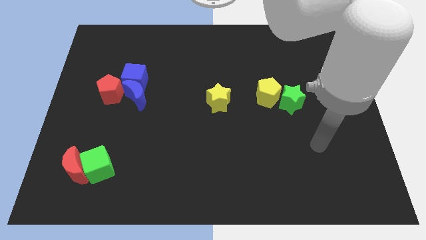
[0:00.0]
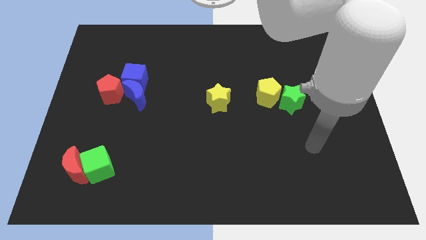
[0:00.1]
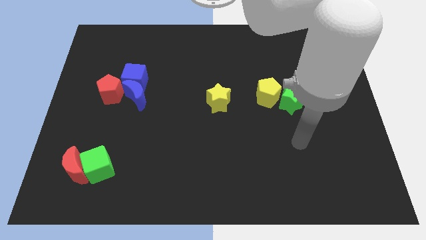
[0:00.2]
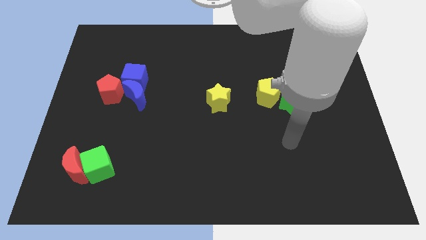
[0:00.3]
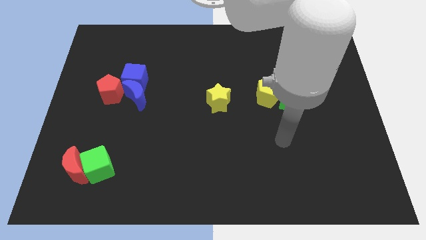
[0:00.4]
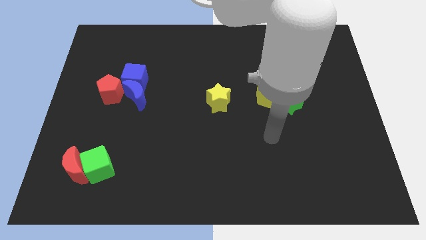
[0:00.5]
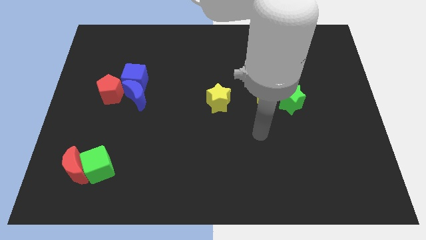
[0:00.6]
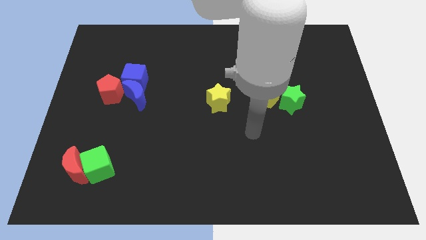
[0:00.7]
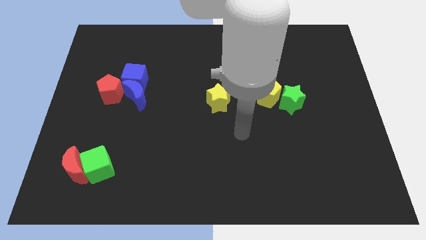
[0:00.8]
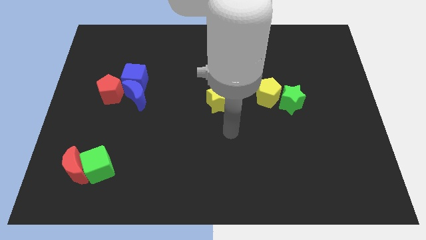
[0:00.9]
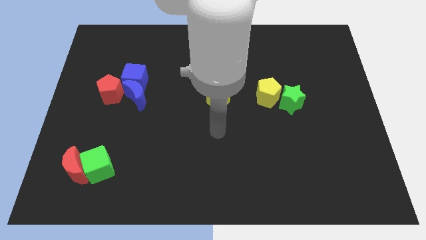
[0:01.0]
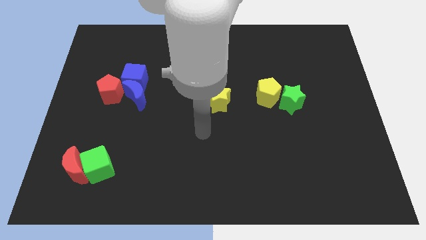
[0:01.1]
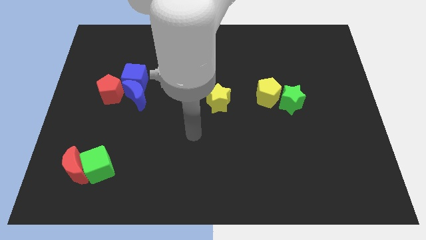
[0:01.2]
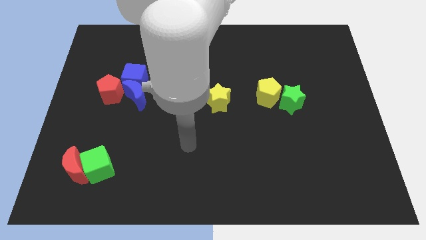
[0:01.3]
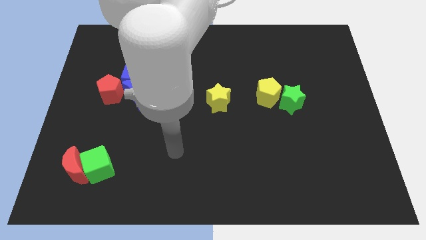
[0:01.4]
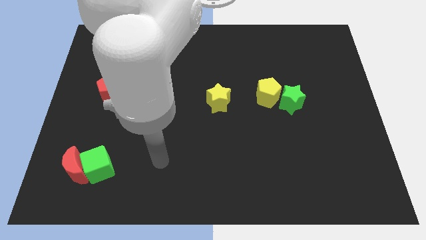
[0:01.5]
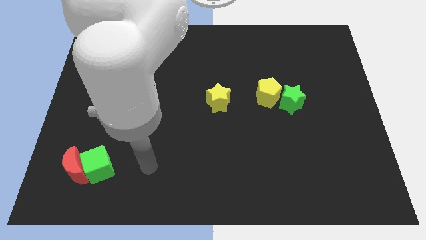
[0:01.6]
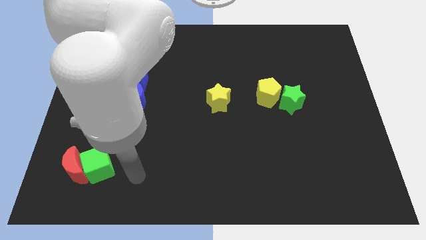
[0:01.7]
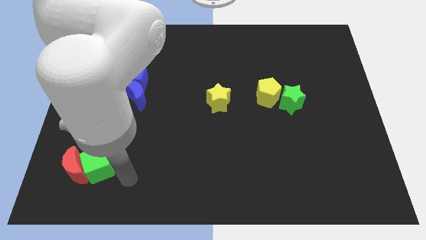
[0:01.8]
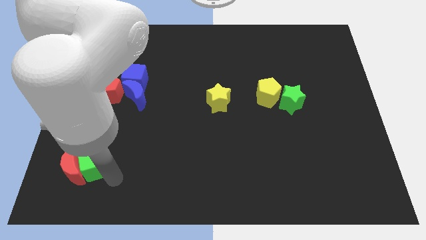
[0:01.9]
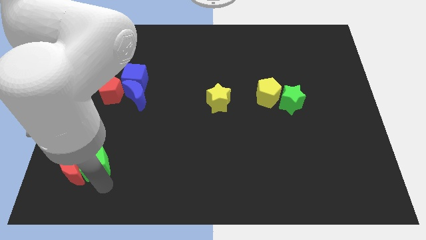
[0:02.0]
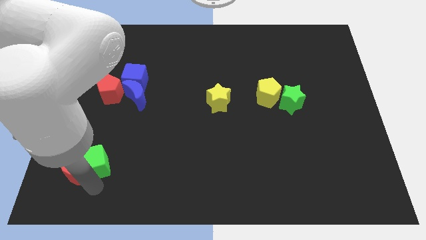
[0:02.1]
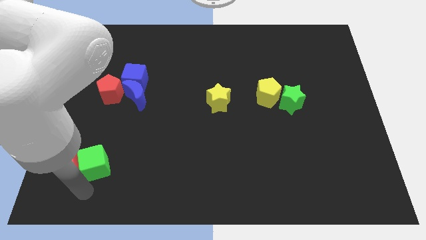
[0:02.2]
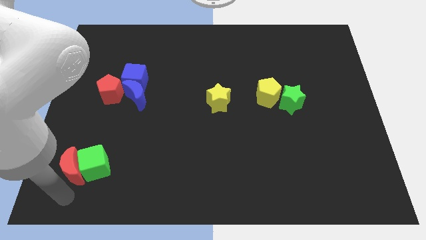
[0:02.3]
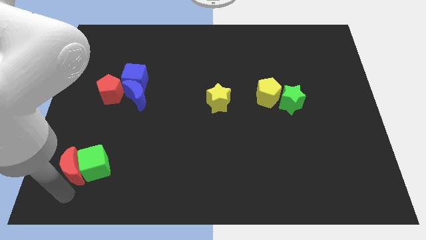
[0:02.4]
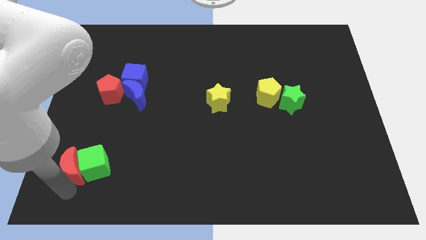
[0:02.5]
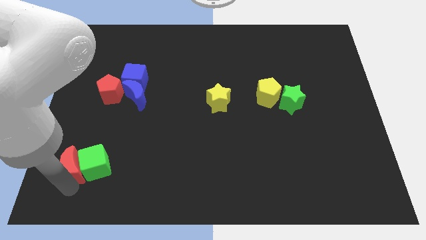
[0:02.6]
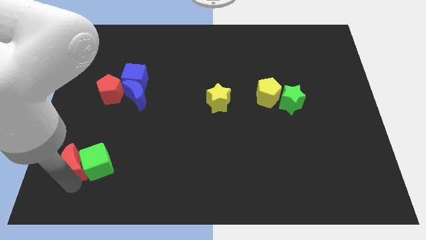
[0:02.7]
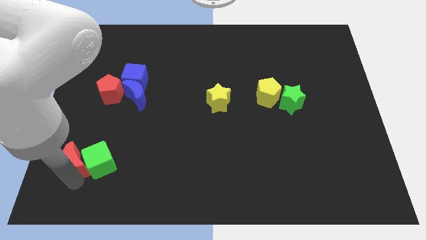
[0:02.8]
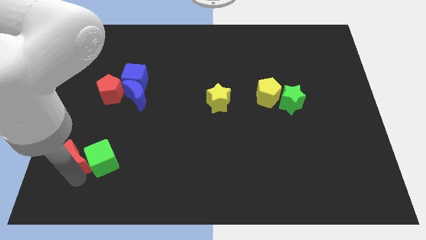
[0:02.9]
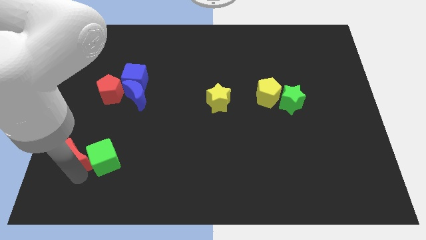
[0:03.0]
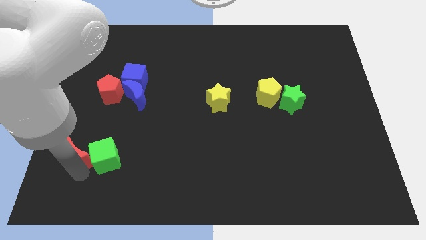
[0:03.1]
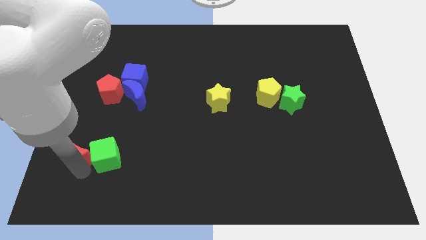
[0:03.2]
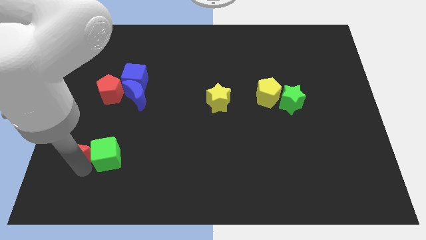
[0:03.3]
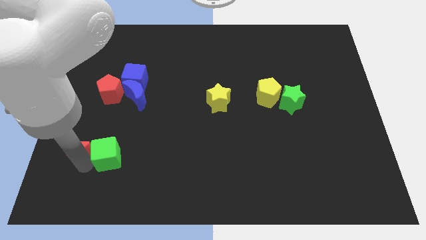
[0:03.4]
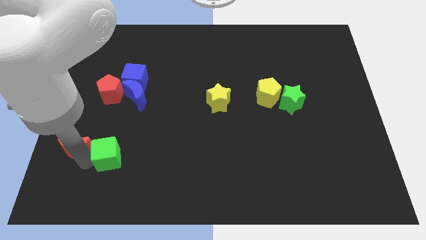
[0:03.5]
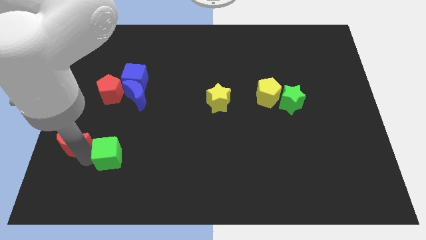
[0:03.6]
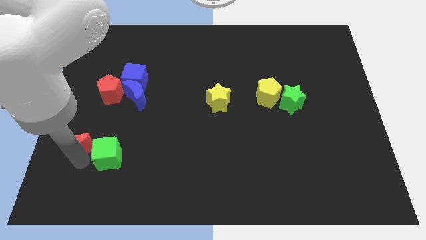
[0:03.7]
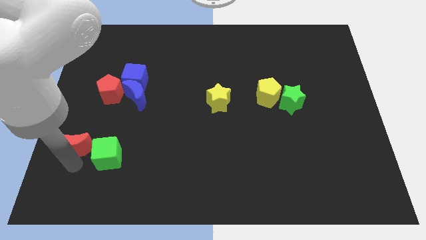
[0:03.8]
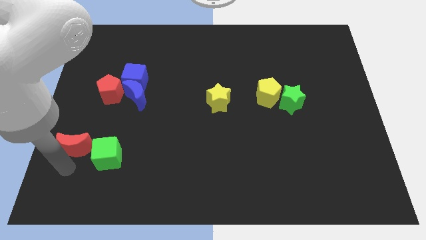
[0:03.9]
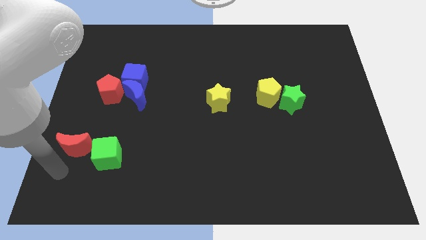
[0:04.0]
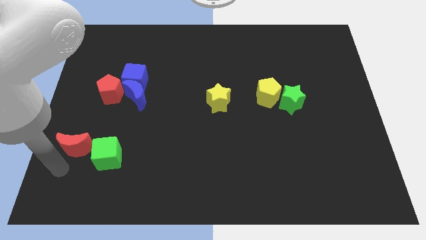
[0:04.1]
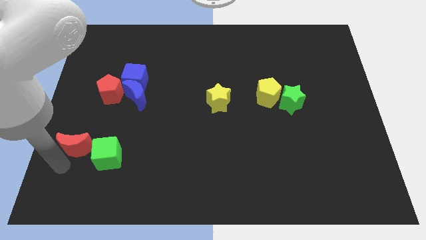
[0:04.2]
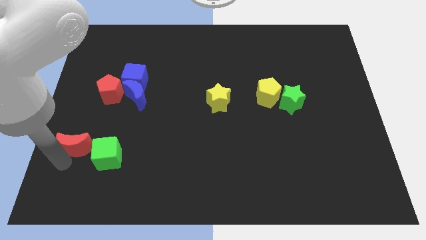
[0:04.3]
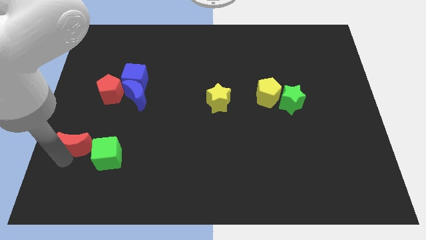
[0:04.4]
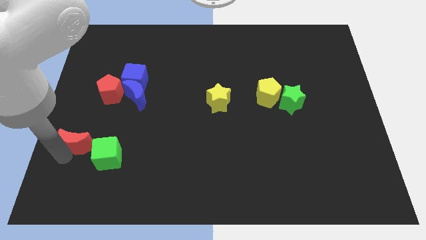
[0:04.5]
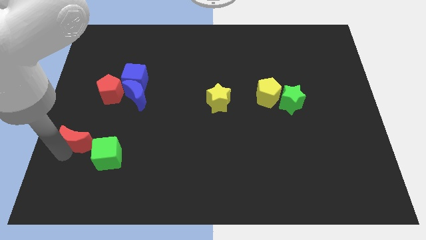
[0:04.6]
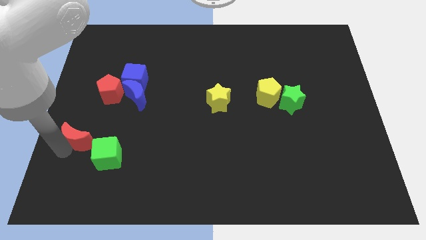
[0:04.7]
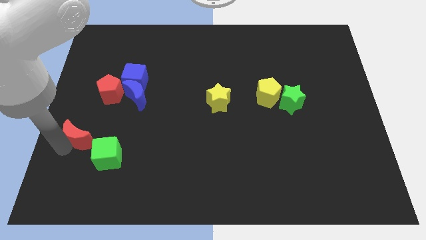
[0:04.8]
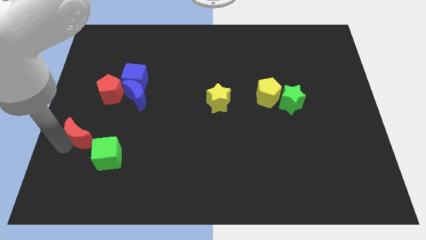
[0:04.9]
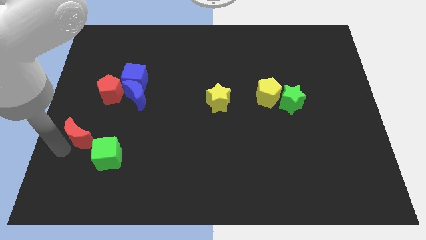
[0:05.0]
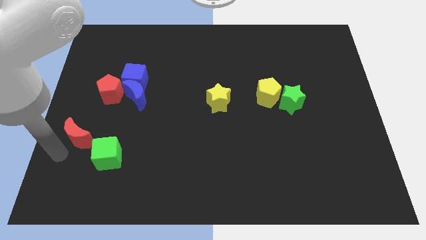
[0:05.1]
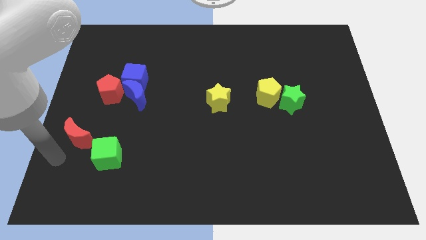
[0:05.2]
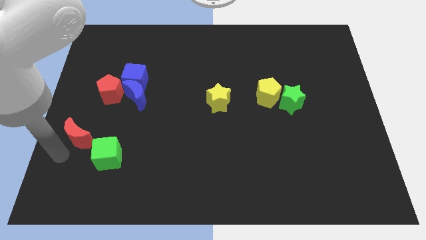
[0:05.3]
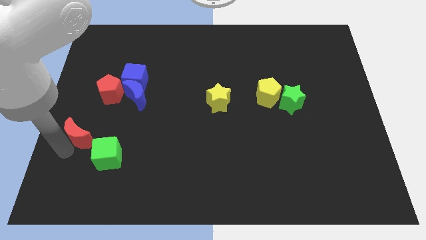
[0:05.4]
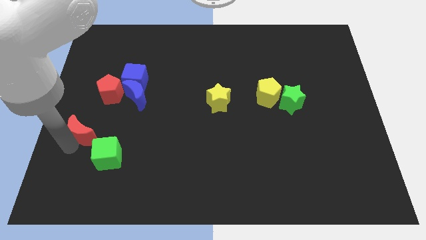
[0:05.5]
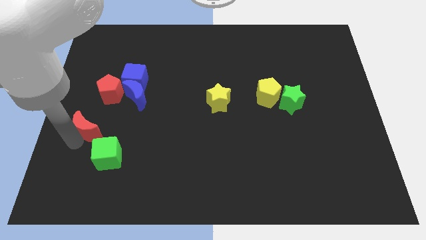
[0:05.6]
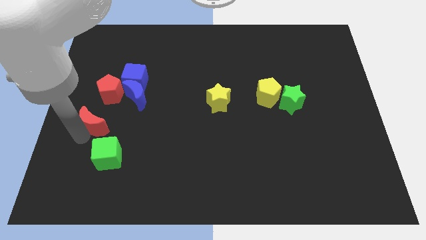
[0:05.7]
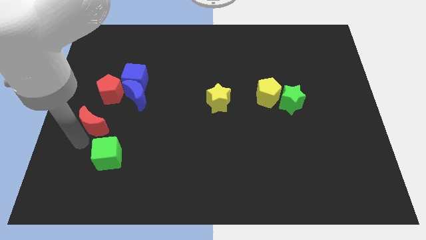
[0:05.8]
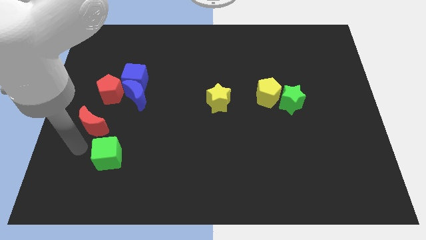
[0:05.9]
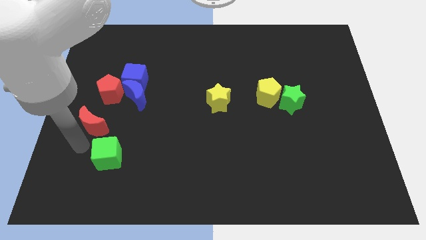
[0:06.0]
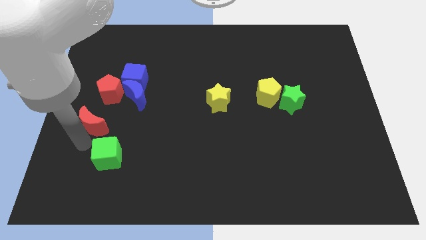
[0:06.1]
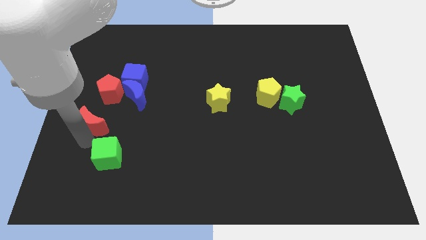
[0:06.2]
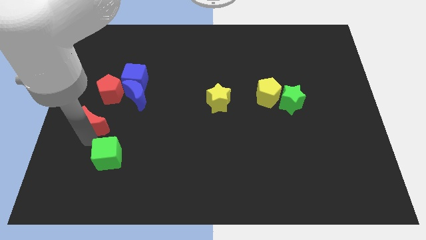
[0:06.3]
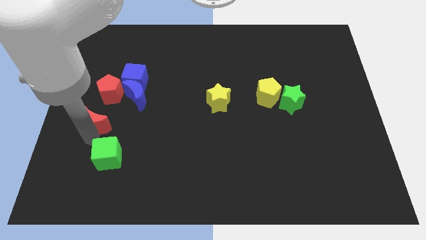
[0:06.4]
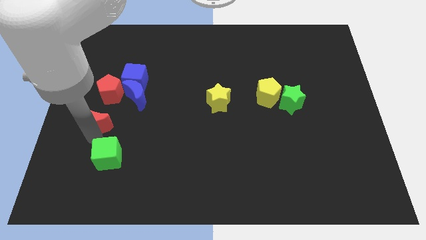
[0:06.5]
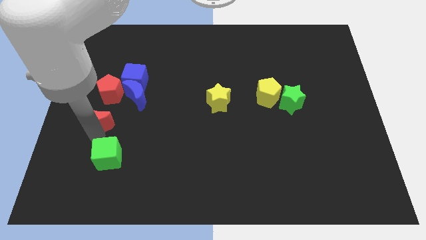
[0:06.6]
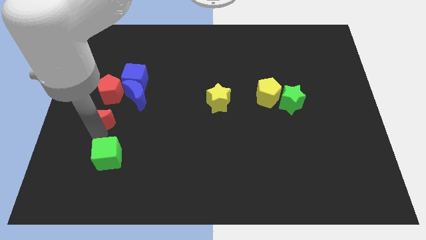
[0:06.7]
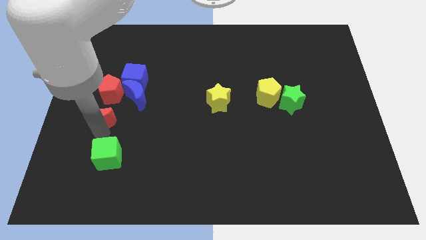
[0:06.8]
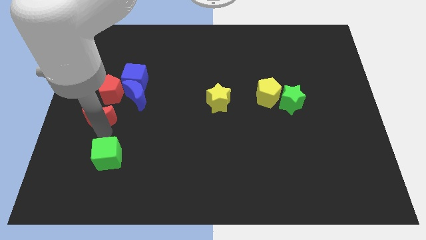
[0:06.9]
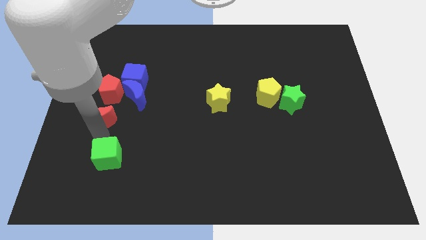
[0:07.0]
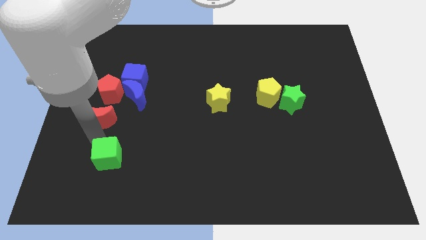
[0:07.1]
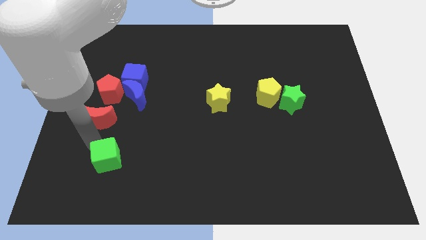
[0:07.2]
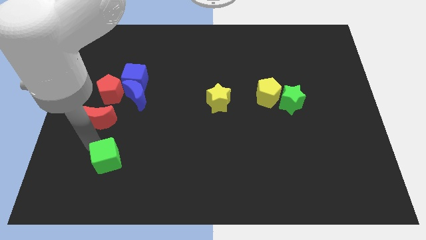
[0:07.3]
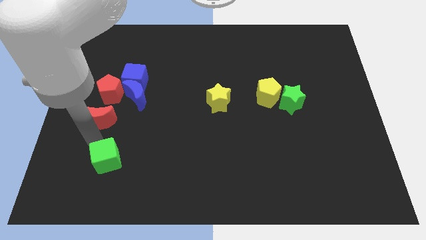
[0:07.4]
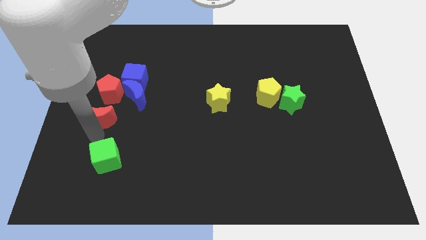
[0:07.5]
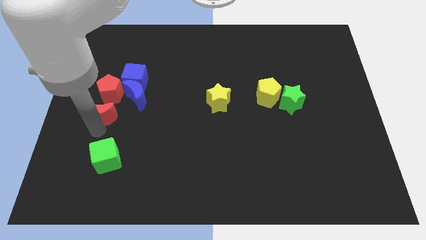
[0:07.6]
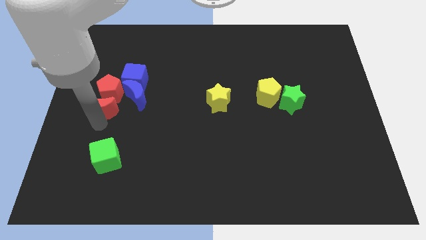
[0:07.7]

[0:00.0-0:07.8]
move the red moon close to the red pentagon

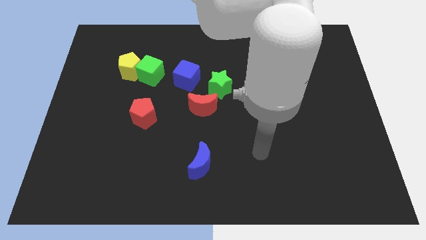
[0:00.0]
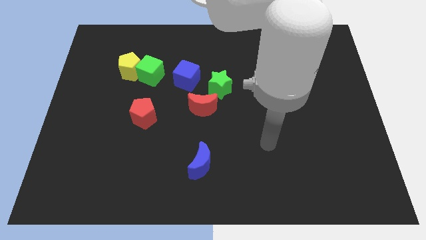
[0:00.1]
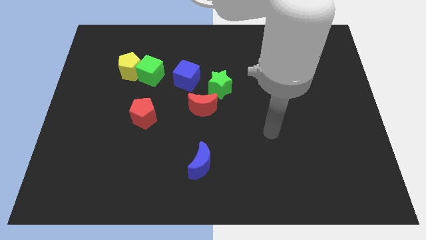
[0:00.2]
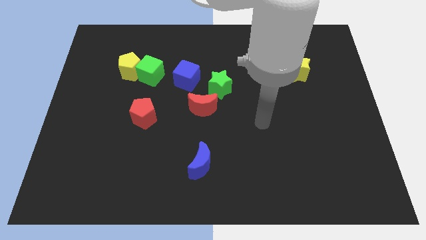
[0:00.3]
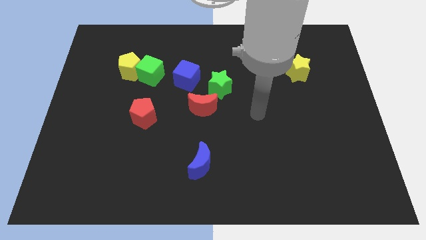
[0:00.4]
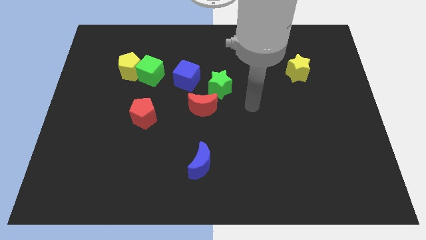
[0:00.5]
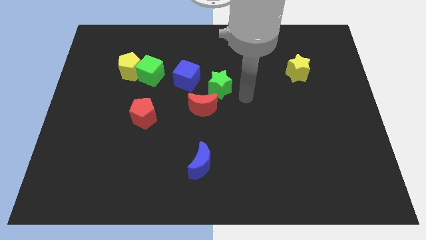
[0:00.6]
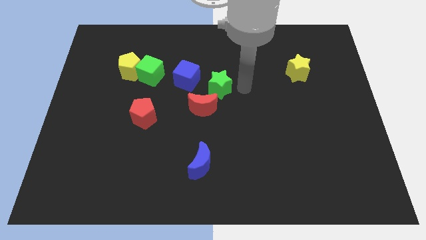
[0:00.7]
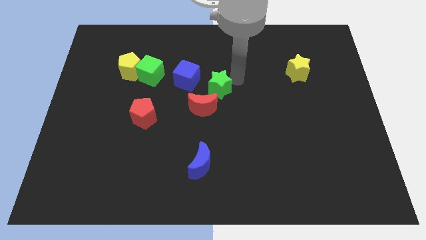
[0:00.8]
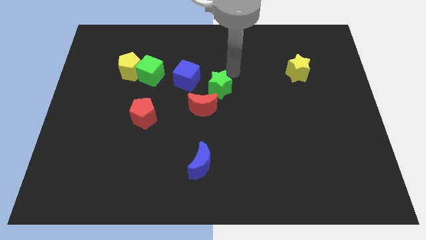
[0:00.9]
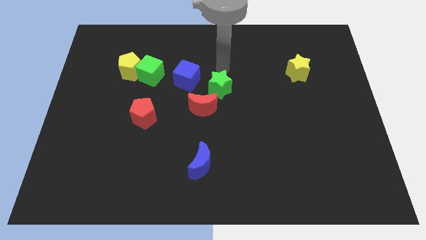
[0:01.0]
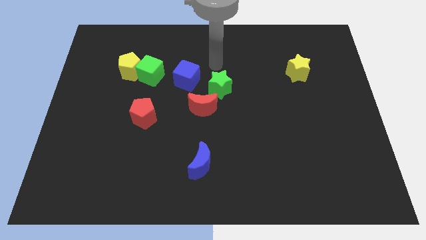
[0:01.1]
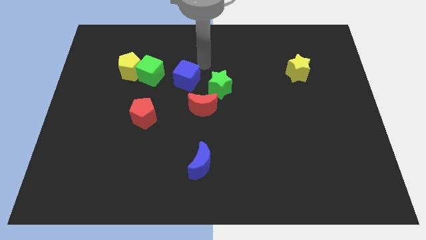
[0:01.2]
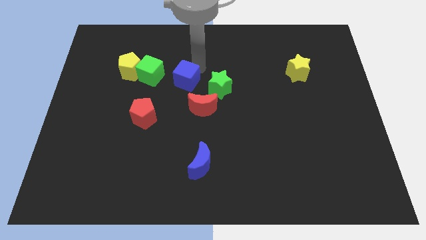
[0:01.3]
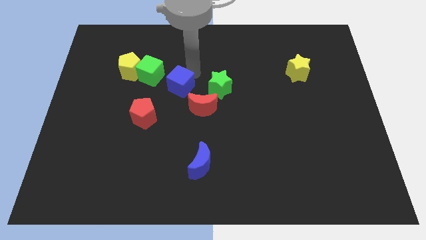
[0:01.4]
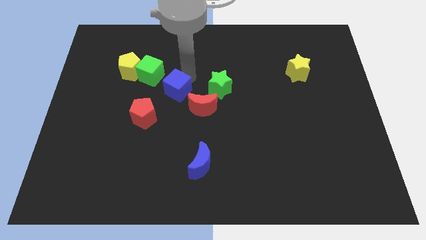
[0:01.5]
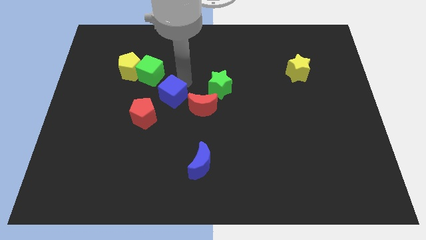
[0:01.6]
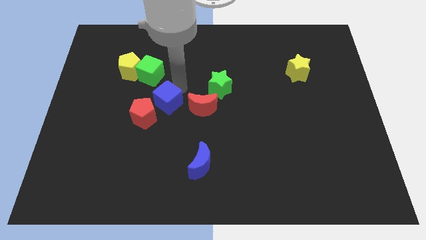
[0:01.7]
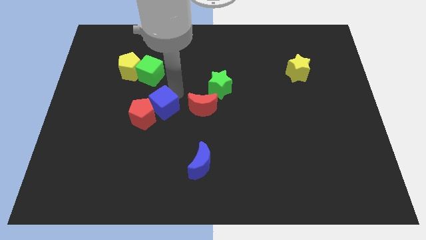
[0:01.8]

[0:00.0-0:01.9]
slide the blue cube next to the red pentagon
